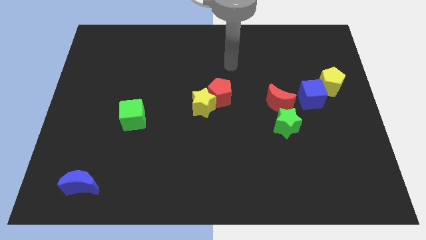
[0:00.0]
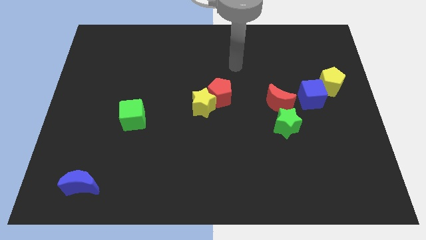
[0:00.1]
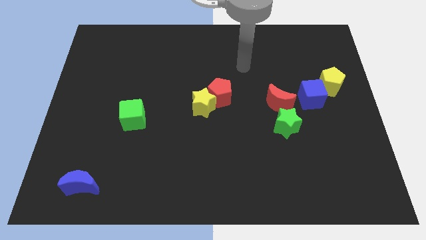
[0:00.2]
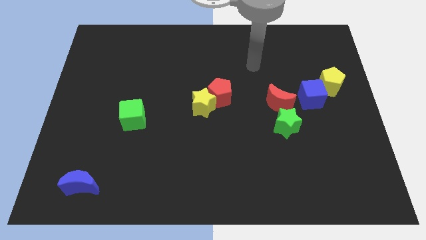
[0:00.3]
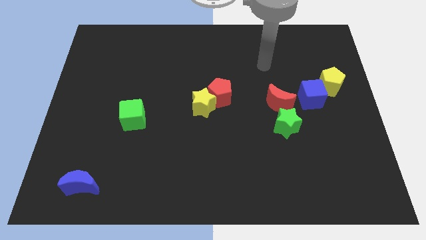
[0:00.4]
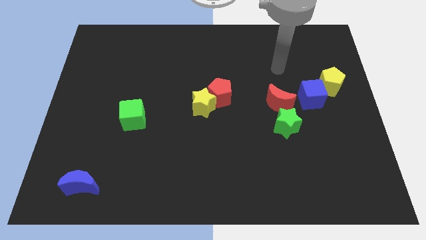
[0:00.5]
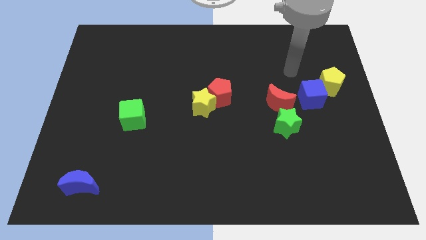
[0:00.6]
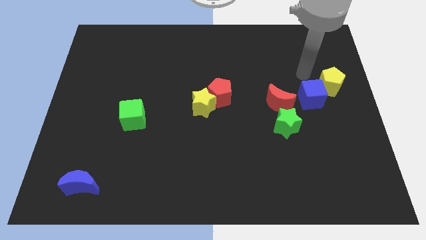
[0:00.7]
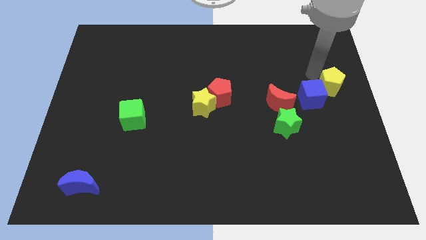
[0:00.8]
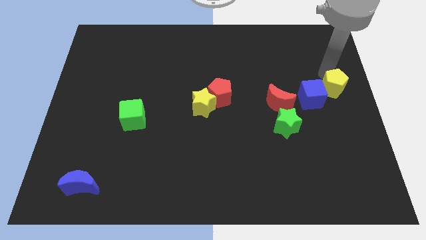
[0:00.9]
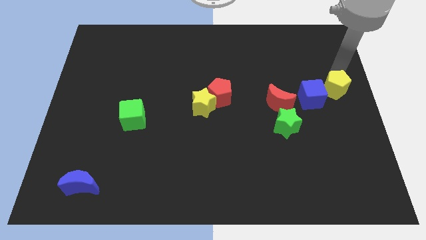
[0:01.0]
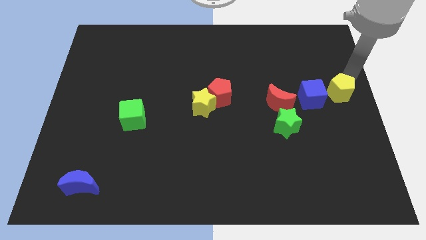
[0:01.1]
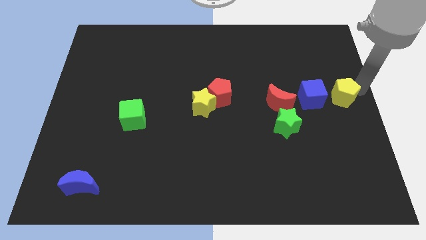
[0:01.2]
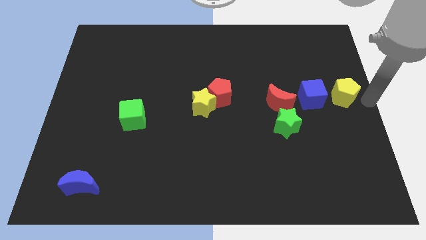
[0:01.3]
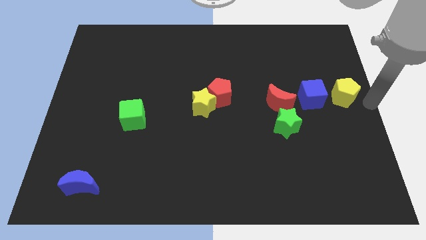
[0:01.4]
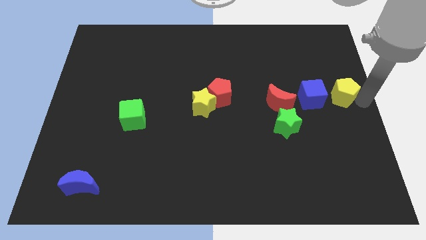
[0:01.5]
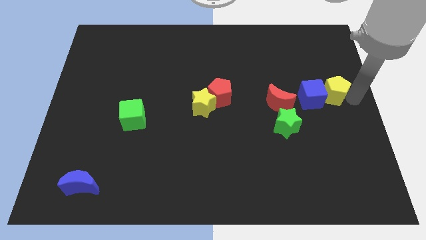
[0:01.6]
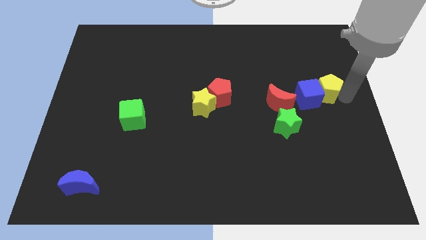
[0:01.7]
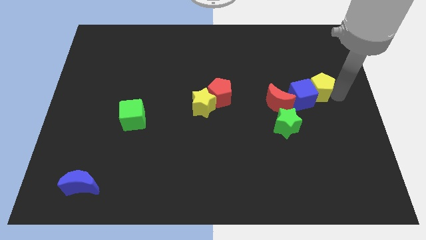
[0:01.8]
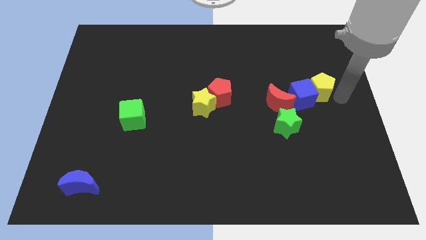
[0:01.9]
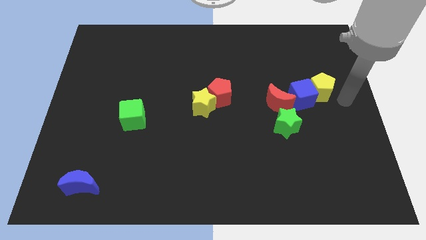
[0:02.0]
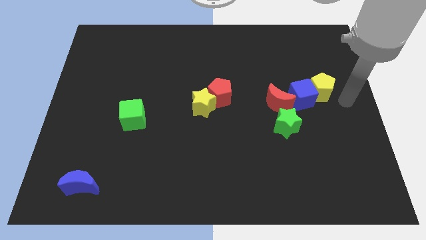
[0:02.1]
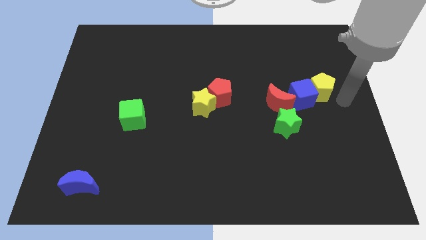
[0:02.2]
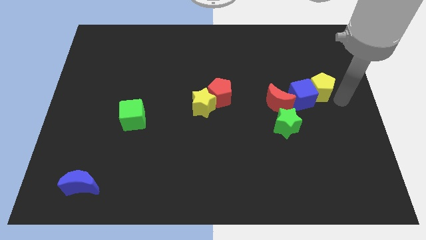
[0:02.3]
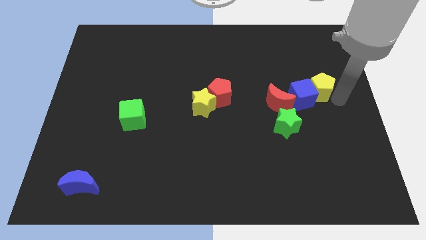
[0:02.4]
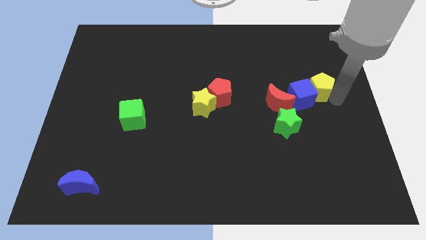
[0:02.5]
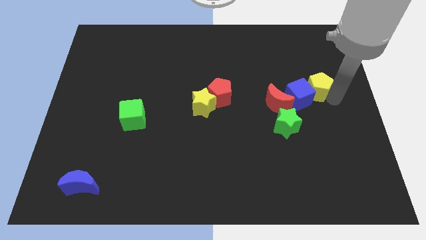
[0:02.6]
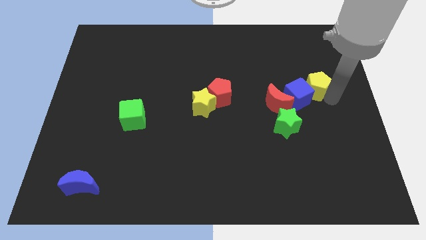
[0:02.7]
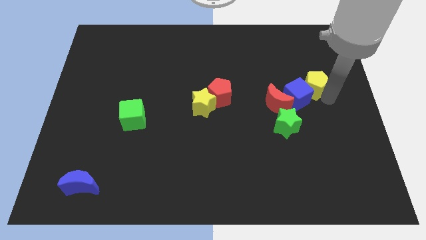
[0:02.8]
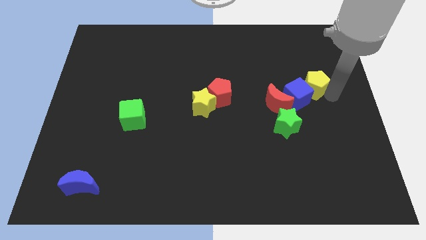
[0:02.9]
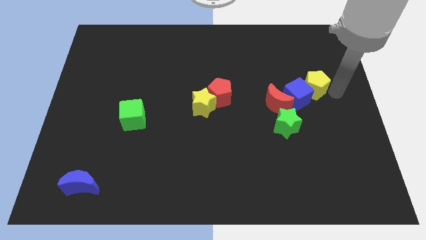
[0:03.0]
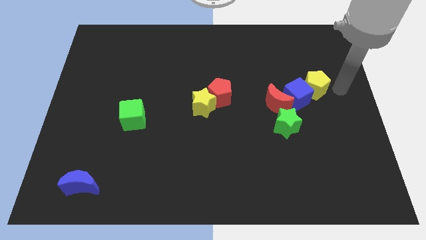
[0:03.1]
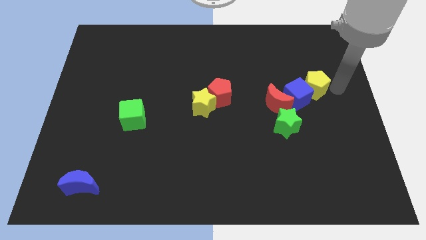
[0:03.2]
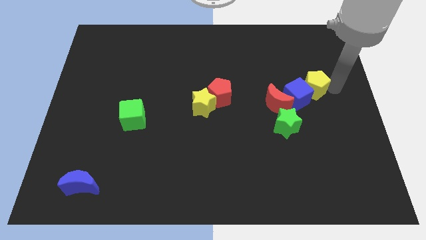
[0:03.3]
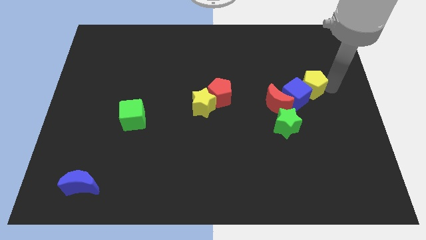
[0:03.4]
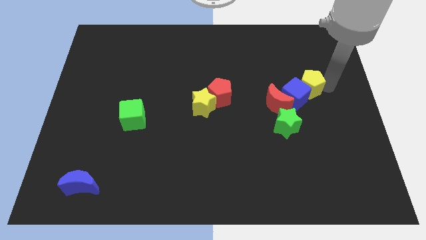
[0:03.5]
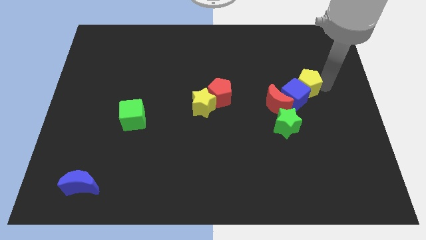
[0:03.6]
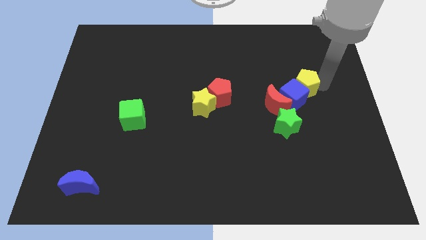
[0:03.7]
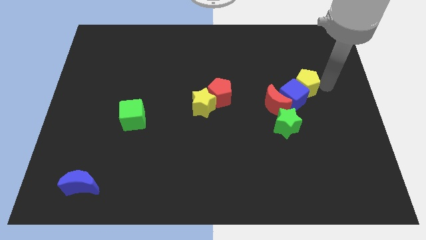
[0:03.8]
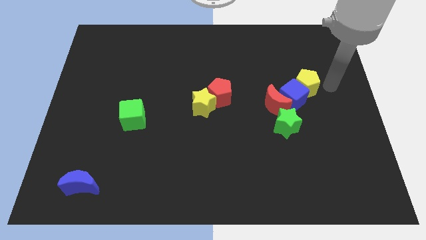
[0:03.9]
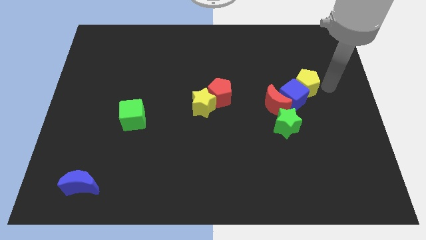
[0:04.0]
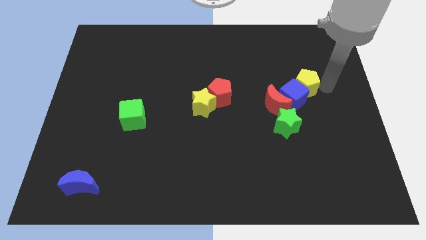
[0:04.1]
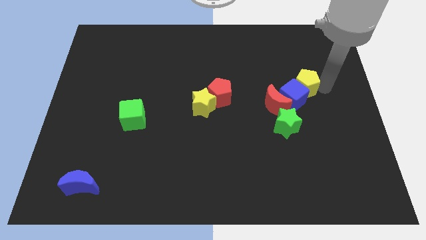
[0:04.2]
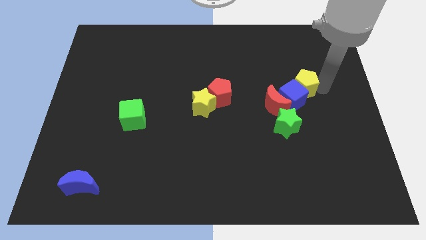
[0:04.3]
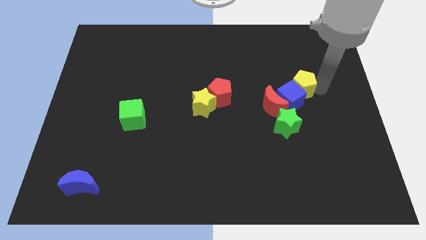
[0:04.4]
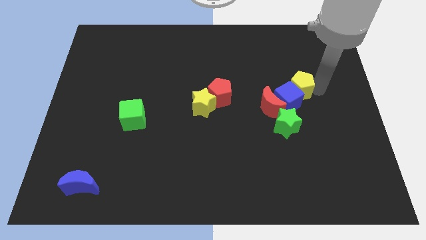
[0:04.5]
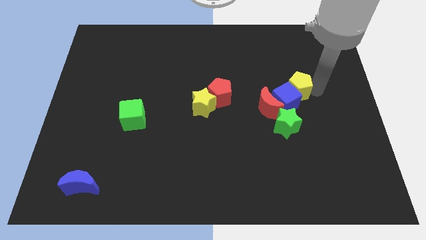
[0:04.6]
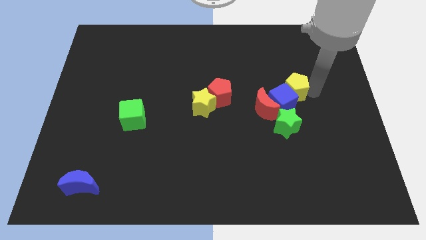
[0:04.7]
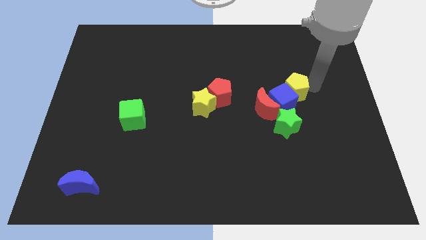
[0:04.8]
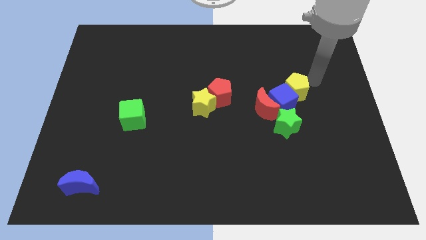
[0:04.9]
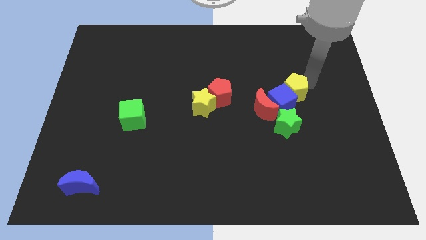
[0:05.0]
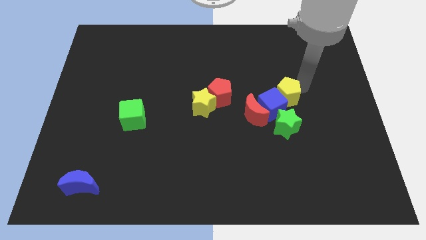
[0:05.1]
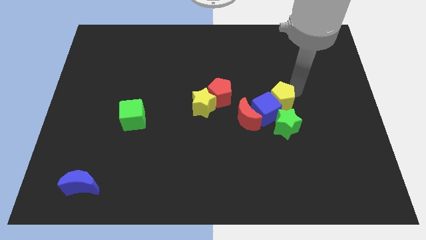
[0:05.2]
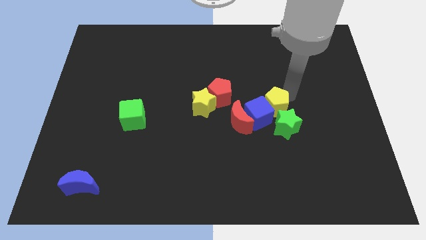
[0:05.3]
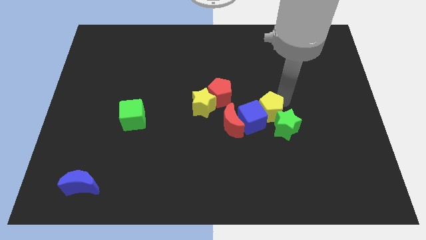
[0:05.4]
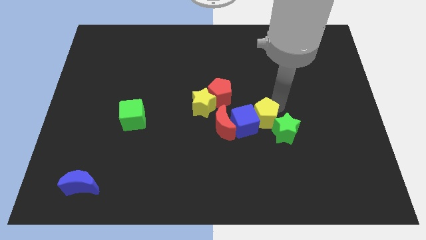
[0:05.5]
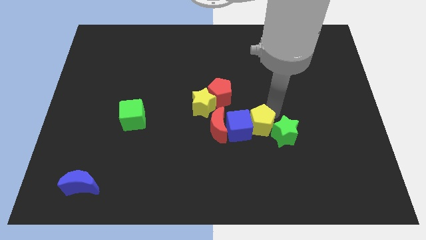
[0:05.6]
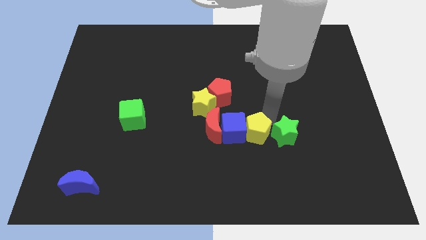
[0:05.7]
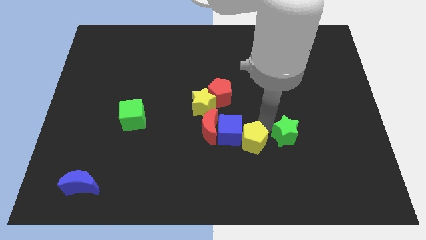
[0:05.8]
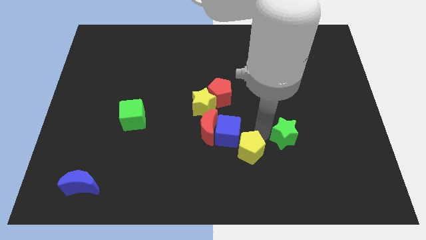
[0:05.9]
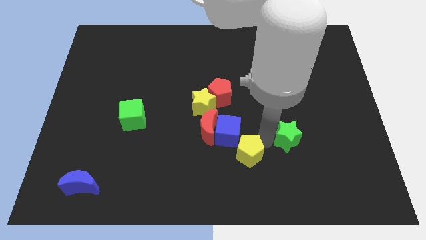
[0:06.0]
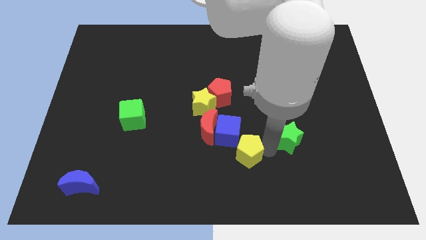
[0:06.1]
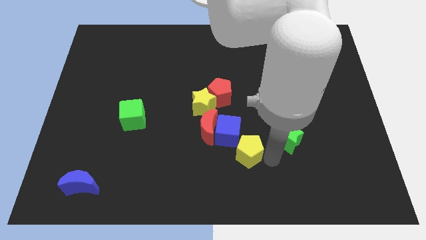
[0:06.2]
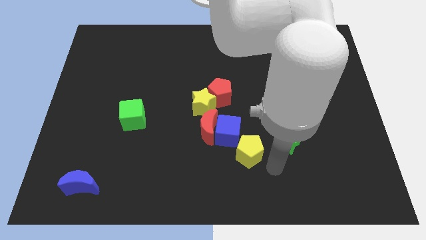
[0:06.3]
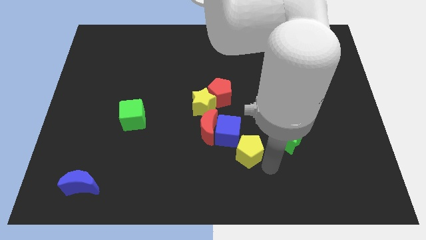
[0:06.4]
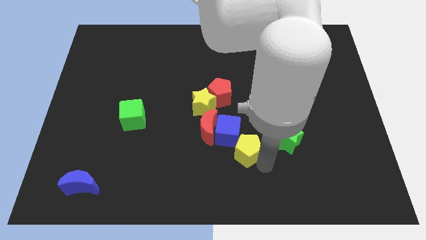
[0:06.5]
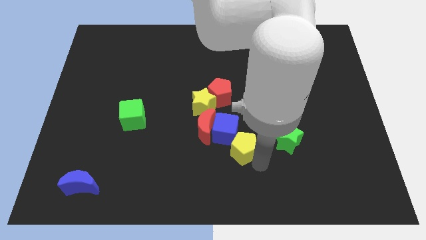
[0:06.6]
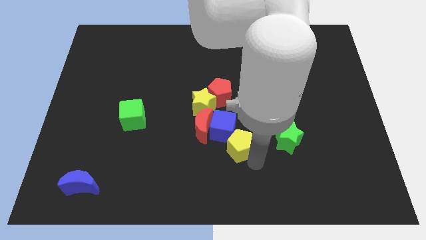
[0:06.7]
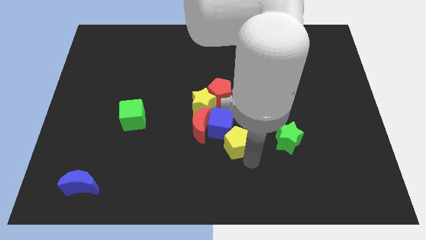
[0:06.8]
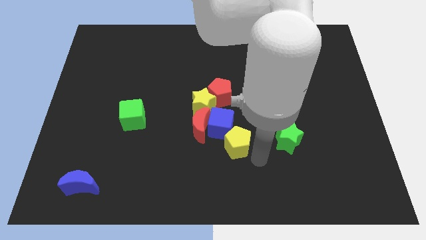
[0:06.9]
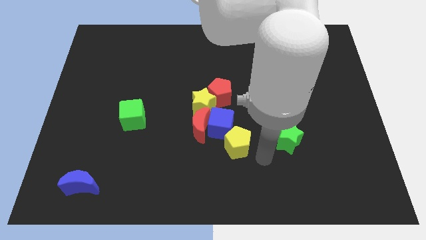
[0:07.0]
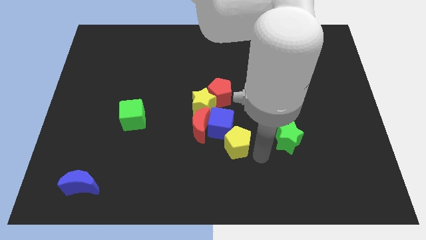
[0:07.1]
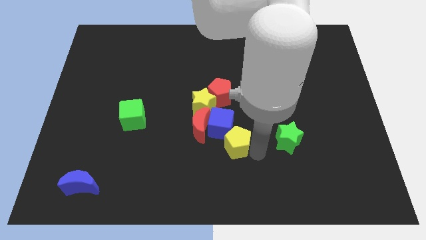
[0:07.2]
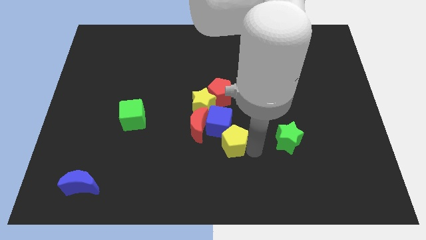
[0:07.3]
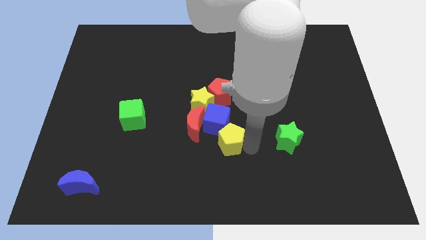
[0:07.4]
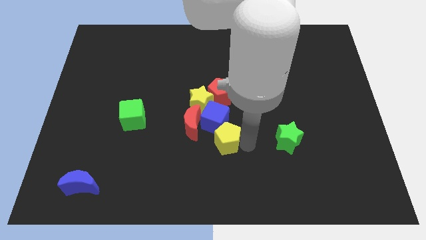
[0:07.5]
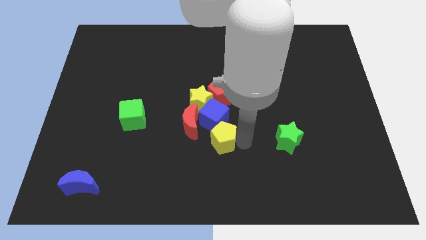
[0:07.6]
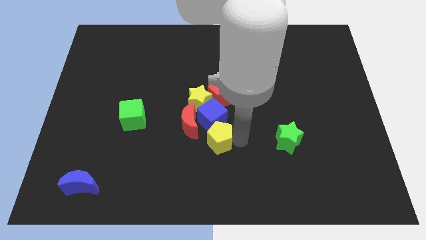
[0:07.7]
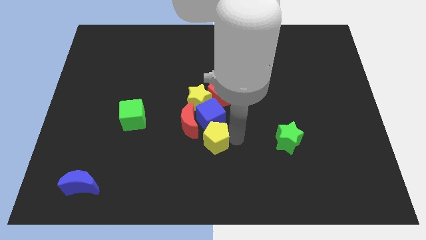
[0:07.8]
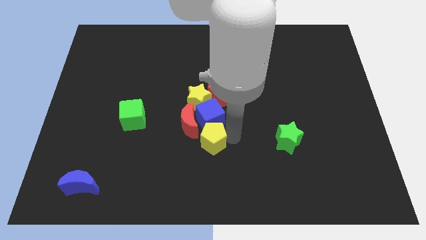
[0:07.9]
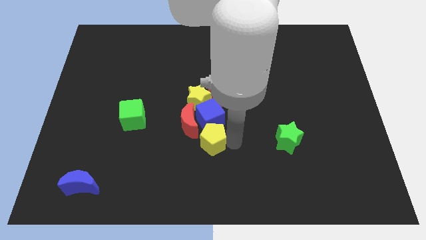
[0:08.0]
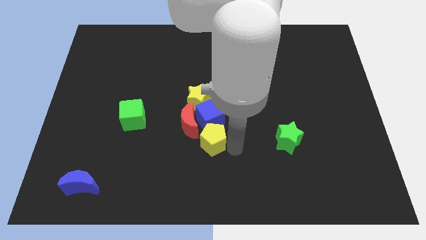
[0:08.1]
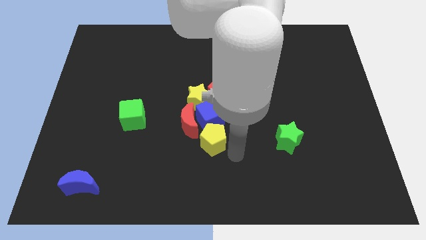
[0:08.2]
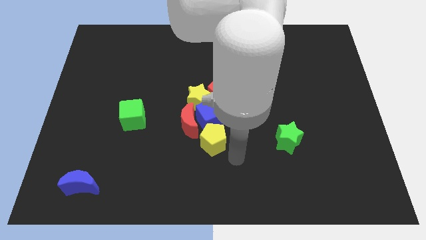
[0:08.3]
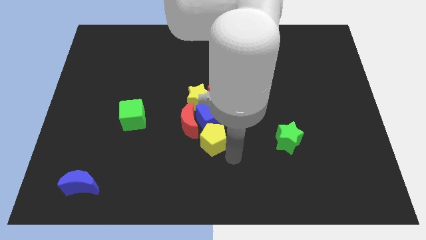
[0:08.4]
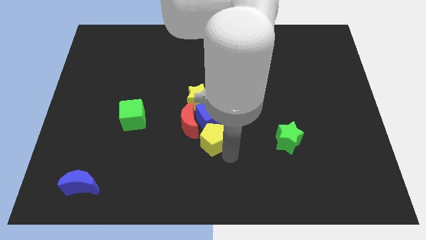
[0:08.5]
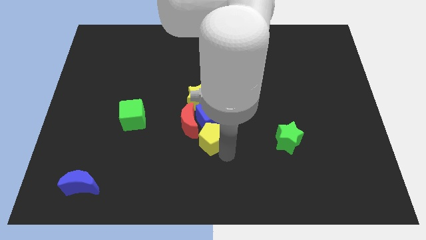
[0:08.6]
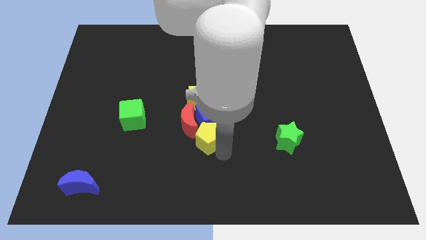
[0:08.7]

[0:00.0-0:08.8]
put the yellow pentagon next to the red moon
